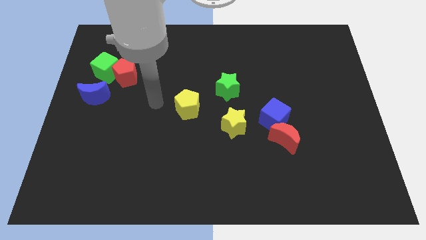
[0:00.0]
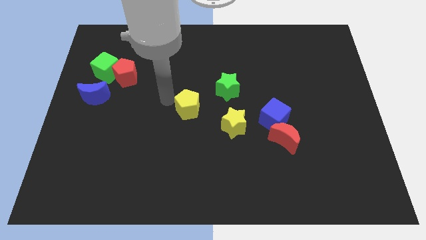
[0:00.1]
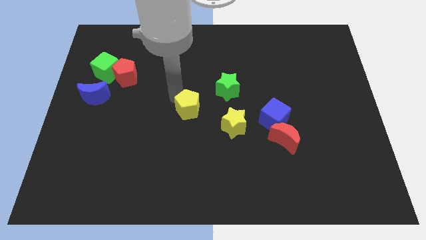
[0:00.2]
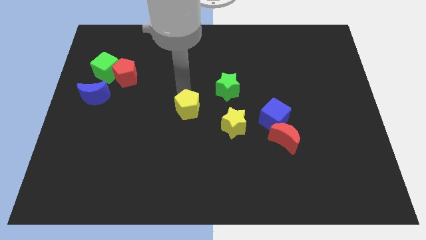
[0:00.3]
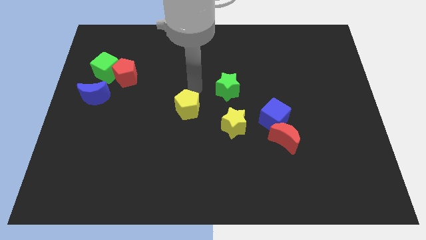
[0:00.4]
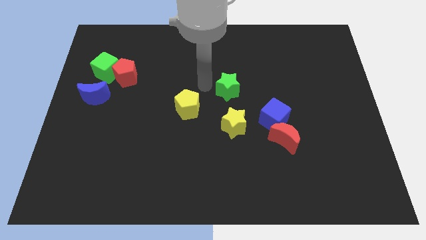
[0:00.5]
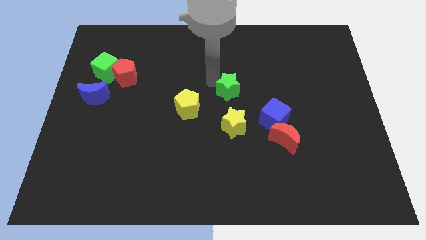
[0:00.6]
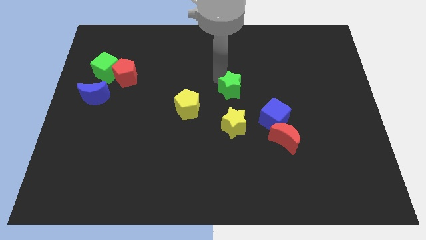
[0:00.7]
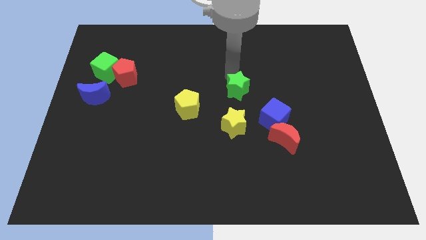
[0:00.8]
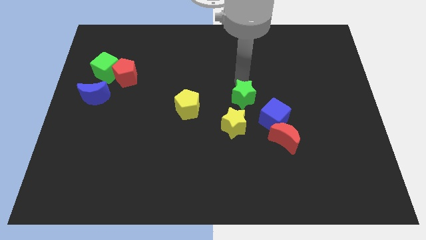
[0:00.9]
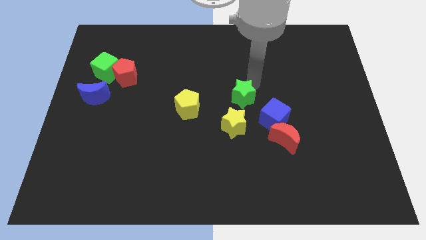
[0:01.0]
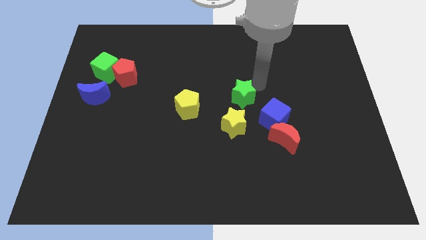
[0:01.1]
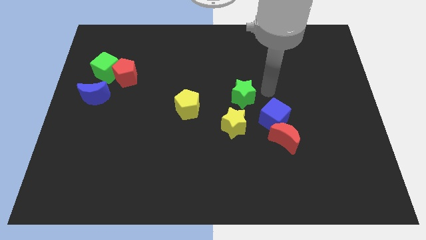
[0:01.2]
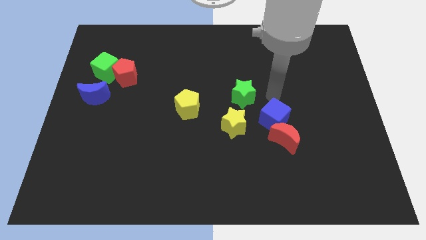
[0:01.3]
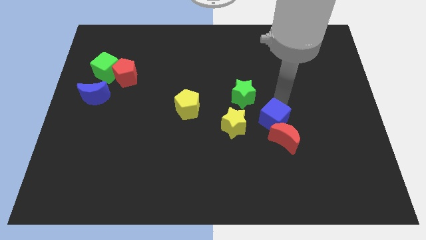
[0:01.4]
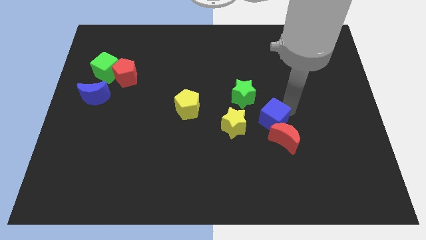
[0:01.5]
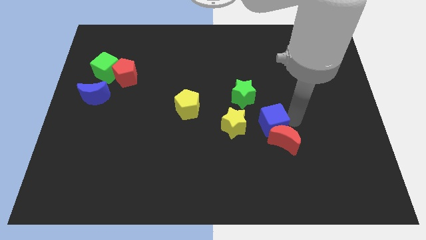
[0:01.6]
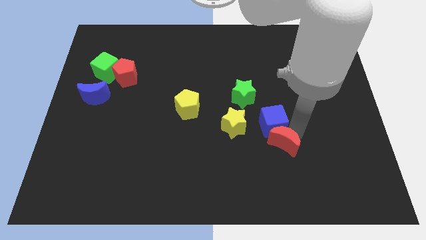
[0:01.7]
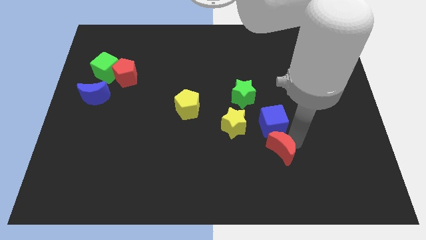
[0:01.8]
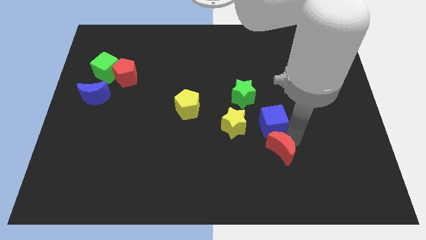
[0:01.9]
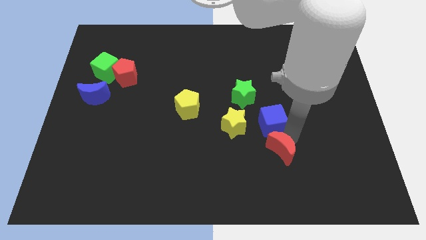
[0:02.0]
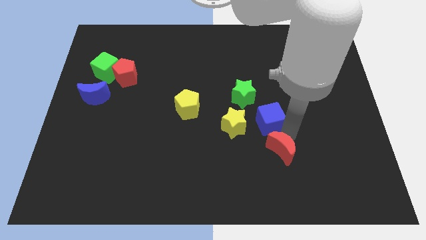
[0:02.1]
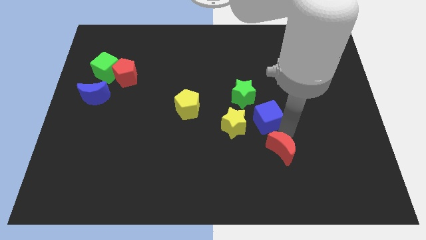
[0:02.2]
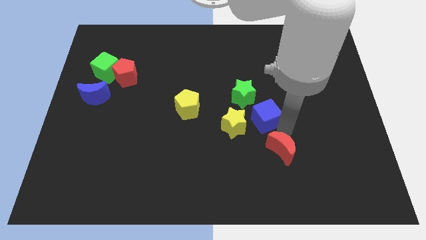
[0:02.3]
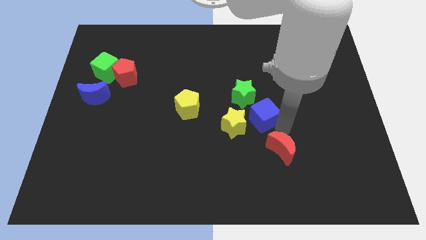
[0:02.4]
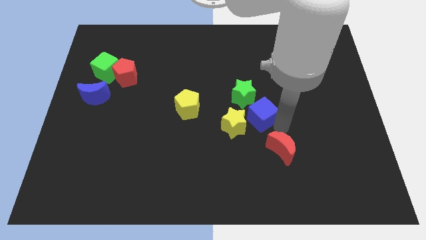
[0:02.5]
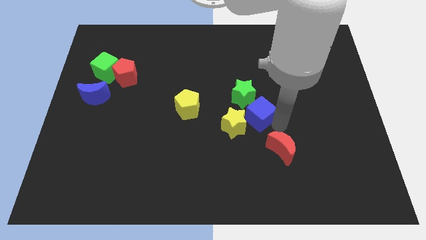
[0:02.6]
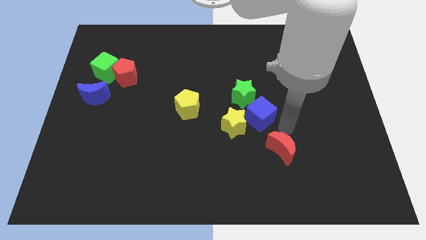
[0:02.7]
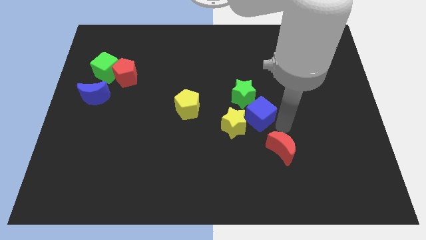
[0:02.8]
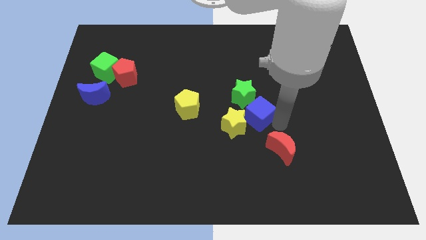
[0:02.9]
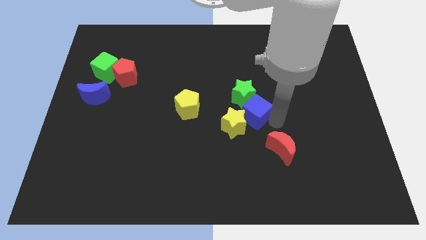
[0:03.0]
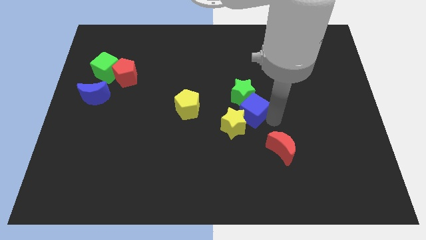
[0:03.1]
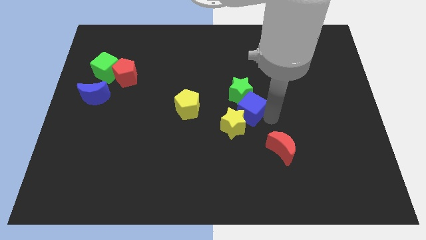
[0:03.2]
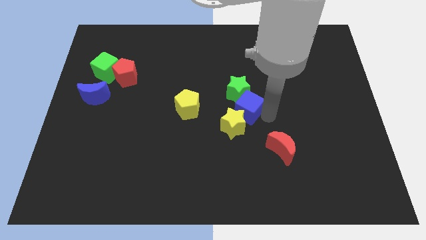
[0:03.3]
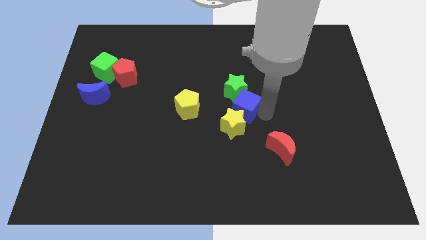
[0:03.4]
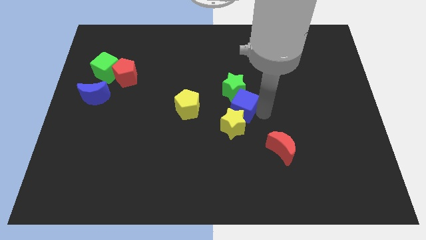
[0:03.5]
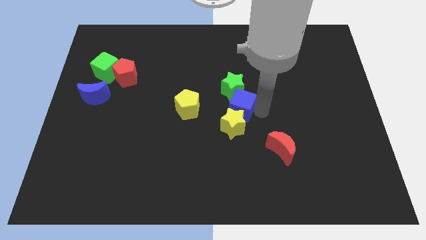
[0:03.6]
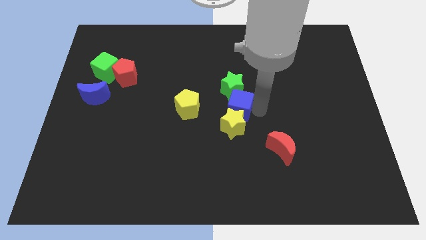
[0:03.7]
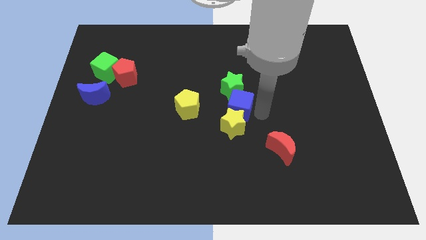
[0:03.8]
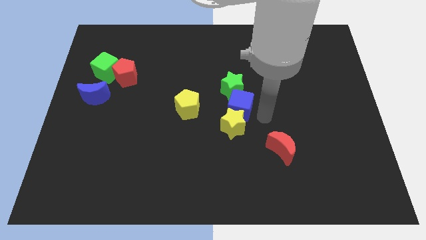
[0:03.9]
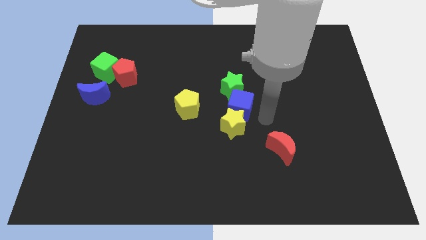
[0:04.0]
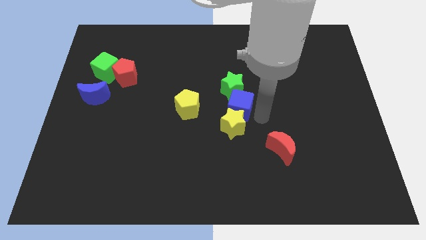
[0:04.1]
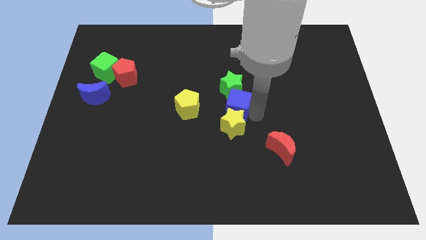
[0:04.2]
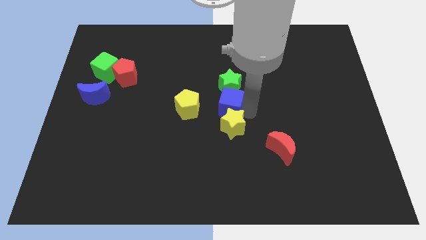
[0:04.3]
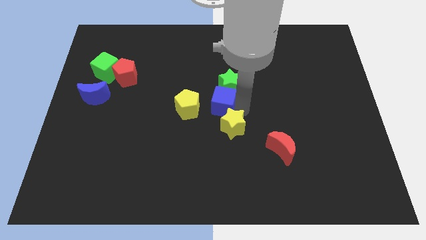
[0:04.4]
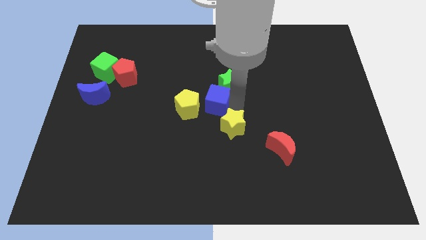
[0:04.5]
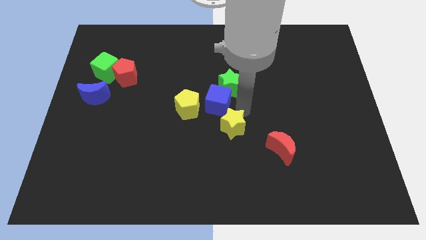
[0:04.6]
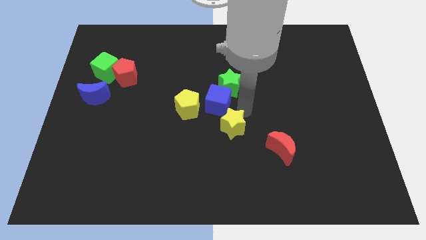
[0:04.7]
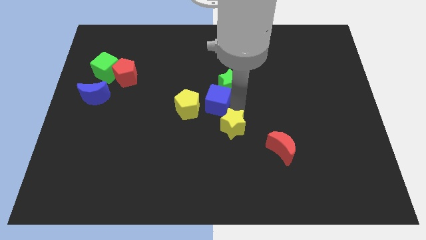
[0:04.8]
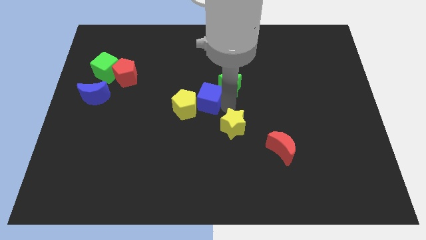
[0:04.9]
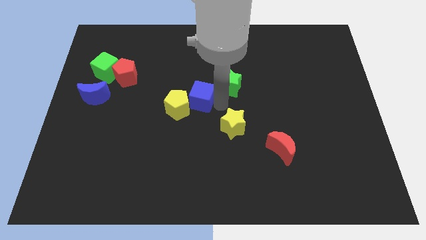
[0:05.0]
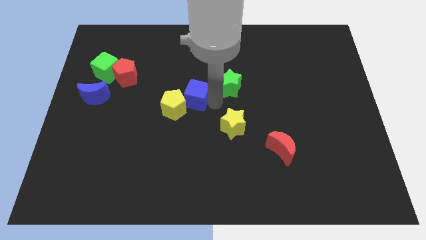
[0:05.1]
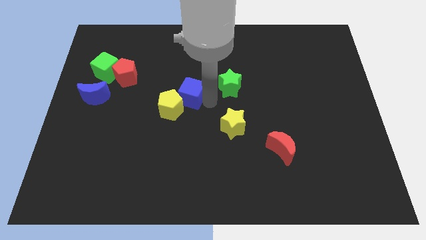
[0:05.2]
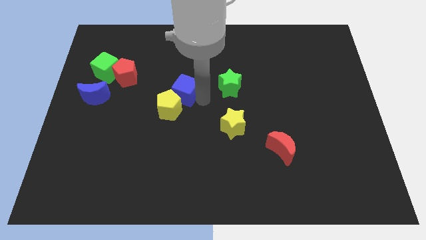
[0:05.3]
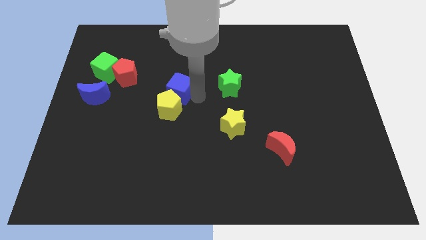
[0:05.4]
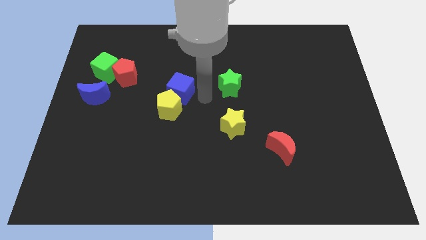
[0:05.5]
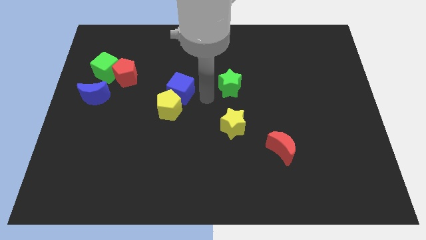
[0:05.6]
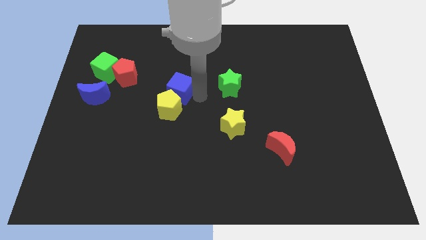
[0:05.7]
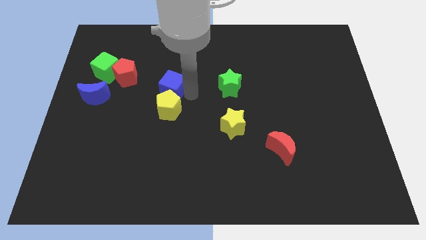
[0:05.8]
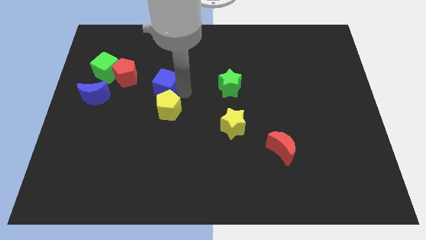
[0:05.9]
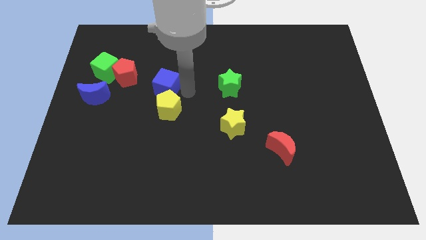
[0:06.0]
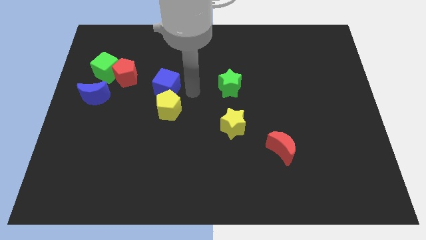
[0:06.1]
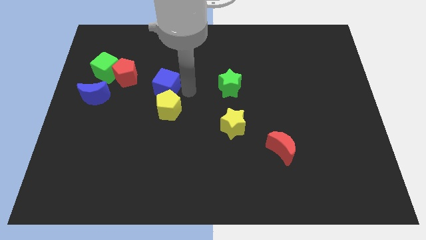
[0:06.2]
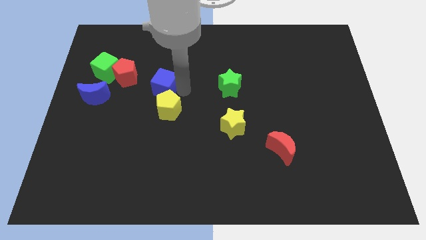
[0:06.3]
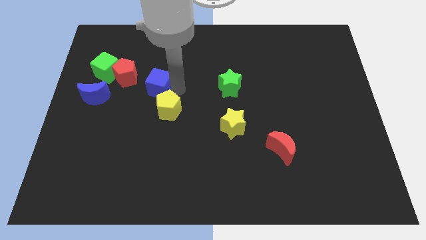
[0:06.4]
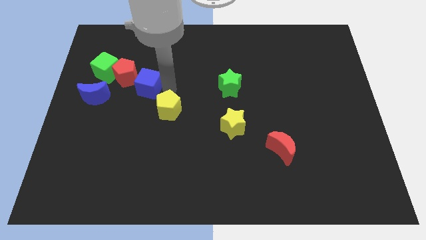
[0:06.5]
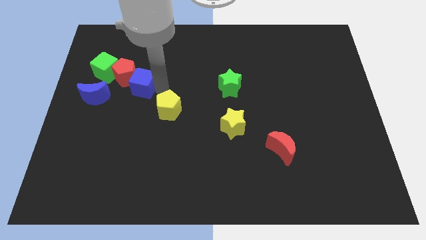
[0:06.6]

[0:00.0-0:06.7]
move the blue cube close to the red pentagon
